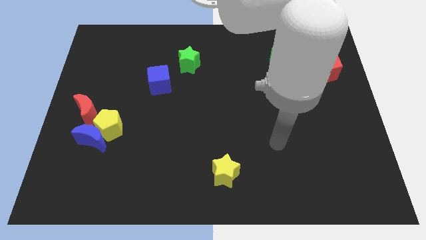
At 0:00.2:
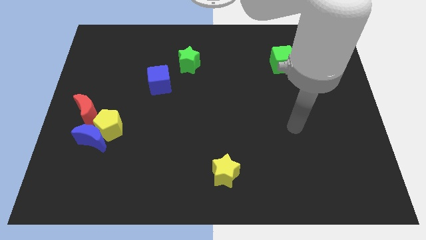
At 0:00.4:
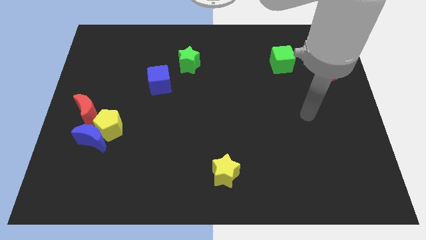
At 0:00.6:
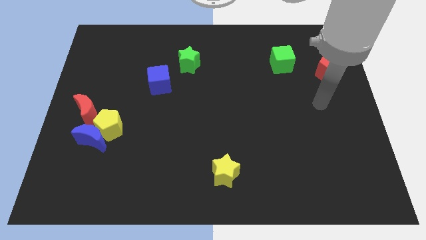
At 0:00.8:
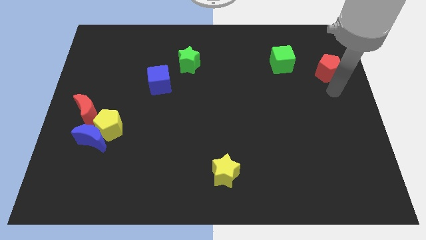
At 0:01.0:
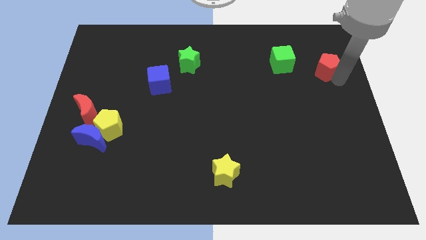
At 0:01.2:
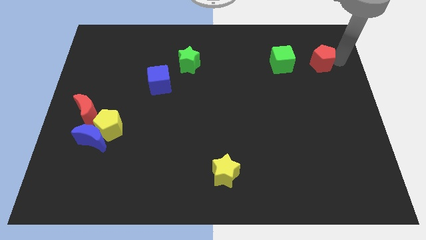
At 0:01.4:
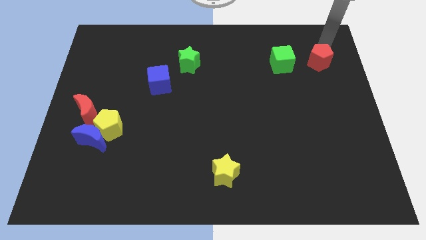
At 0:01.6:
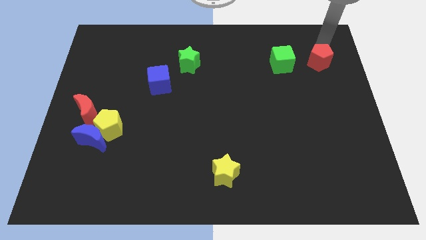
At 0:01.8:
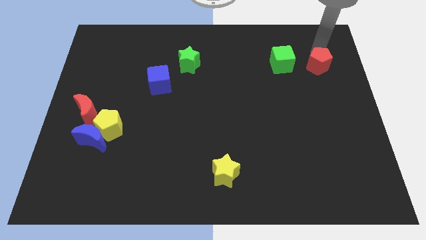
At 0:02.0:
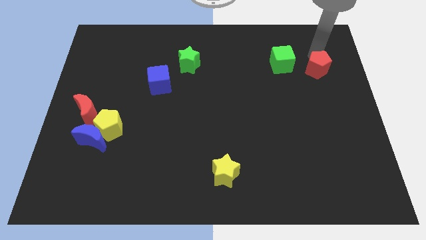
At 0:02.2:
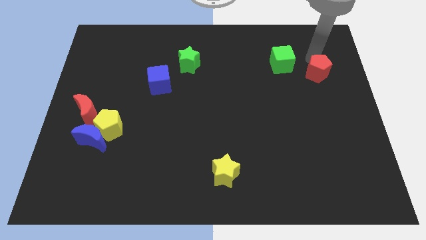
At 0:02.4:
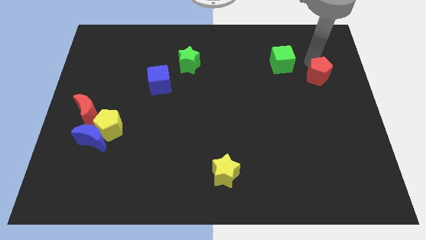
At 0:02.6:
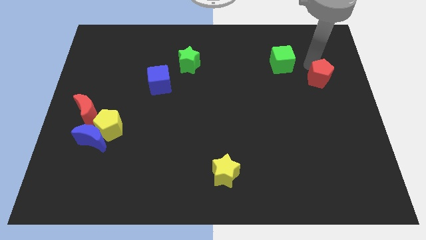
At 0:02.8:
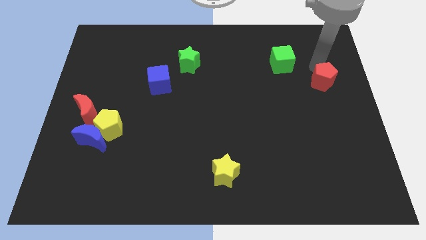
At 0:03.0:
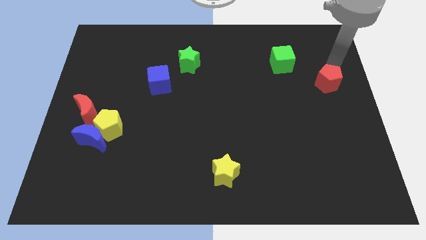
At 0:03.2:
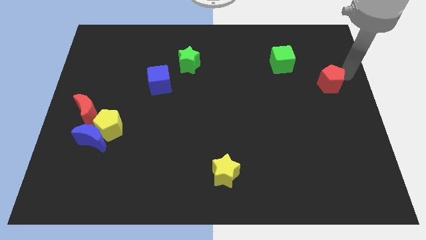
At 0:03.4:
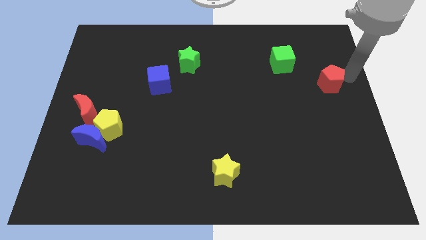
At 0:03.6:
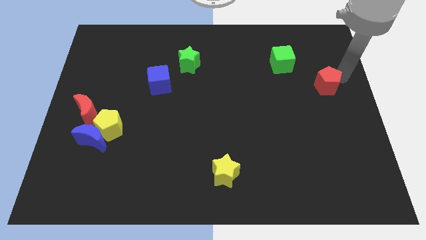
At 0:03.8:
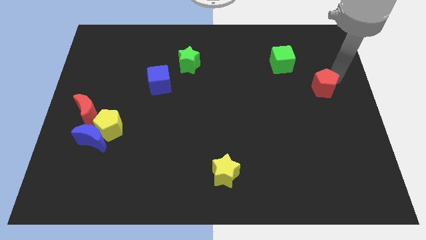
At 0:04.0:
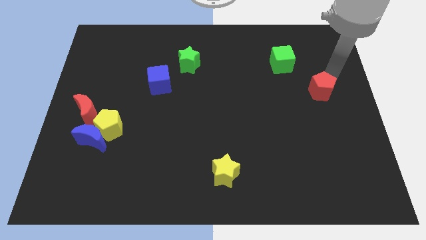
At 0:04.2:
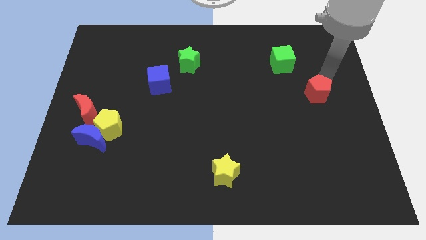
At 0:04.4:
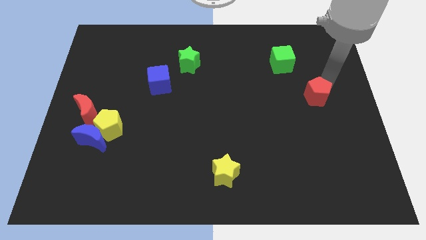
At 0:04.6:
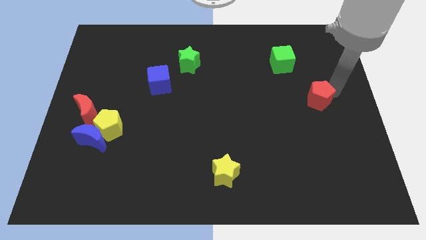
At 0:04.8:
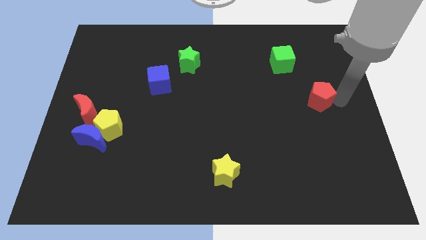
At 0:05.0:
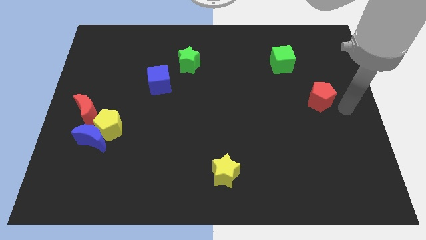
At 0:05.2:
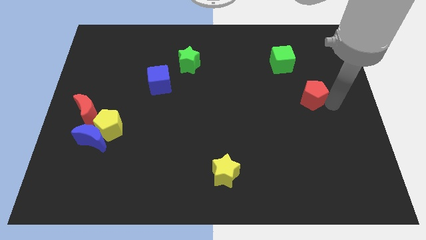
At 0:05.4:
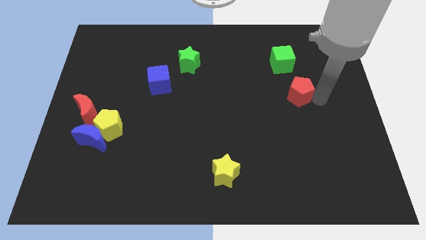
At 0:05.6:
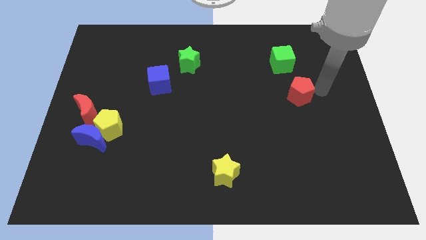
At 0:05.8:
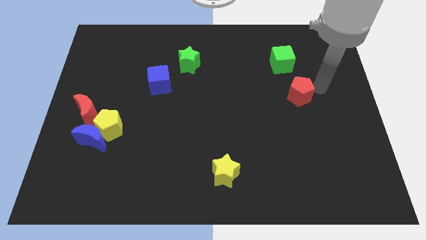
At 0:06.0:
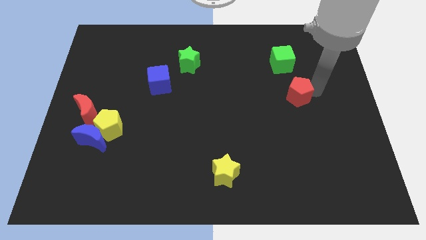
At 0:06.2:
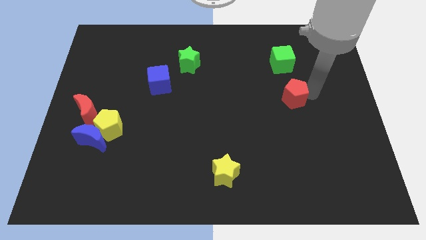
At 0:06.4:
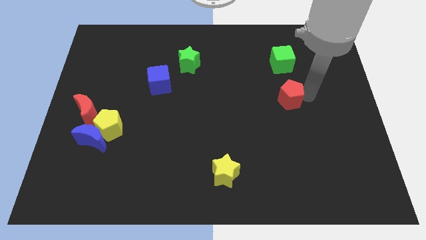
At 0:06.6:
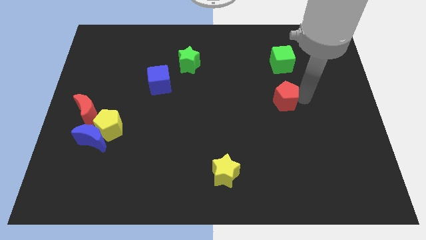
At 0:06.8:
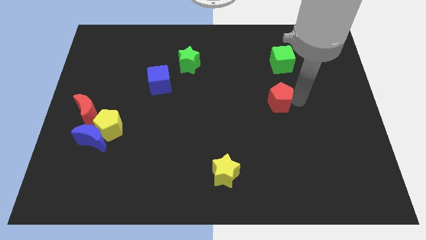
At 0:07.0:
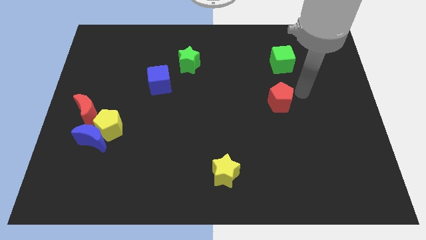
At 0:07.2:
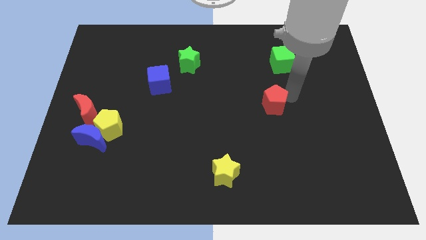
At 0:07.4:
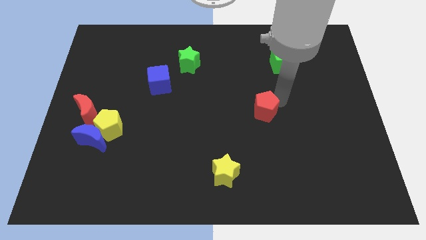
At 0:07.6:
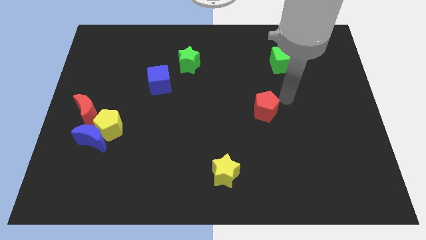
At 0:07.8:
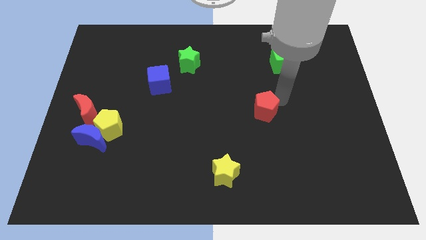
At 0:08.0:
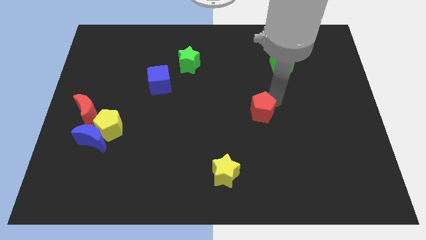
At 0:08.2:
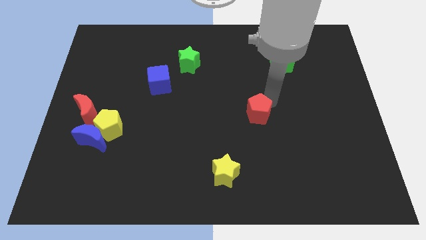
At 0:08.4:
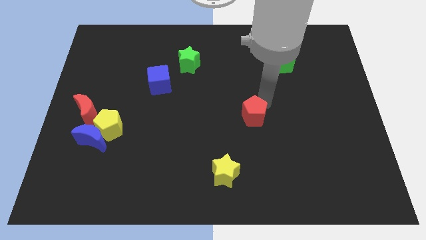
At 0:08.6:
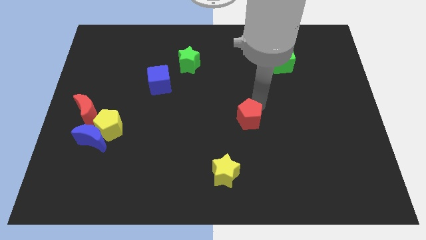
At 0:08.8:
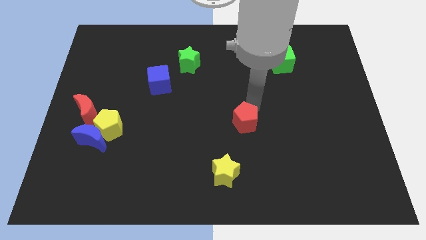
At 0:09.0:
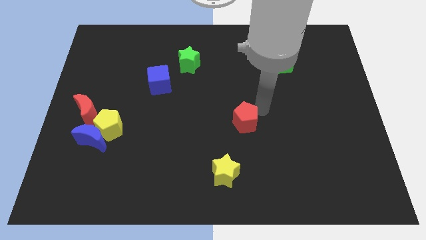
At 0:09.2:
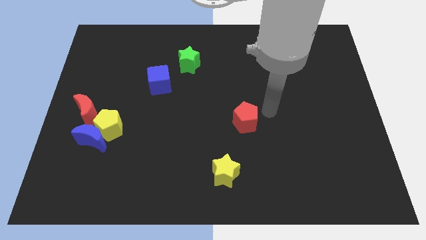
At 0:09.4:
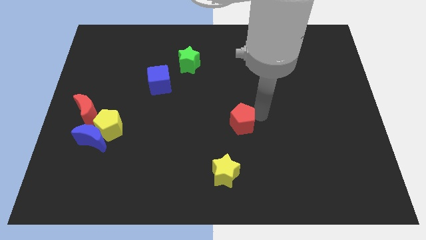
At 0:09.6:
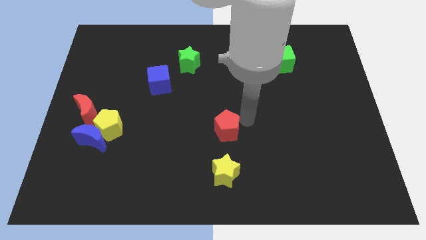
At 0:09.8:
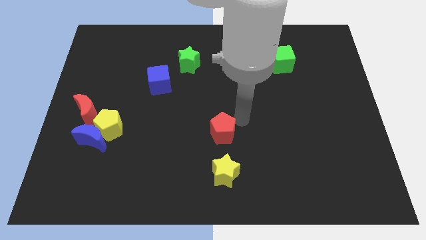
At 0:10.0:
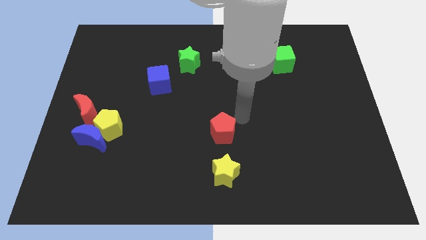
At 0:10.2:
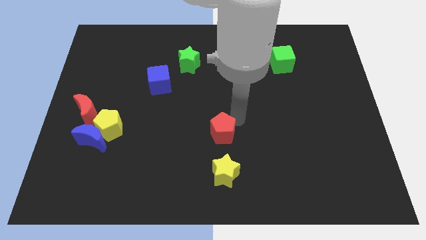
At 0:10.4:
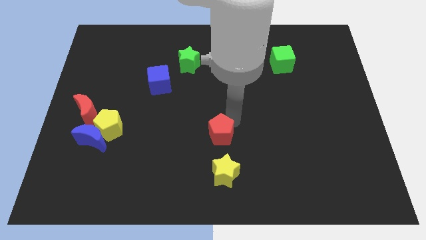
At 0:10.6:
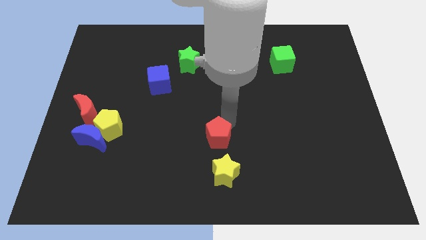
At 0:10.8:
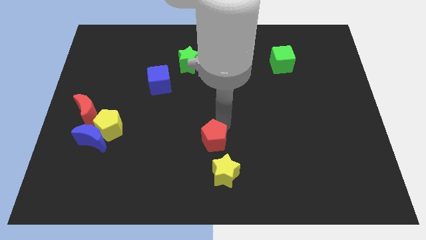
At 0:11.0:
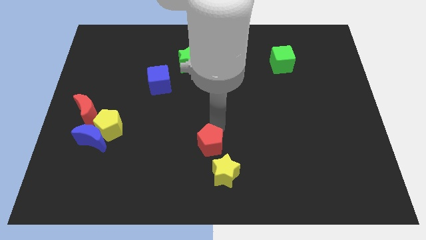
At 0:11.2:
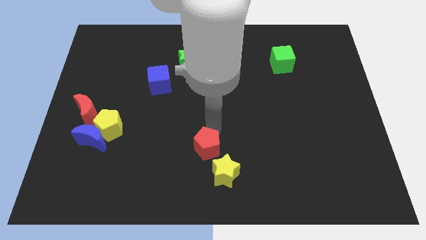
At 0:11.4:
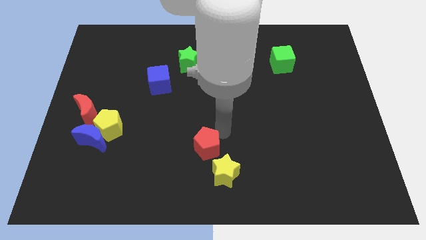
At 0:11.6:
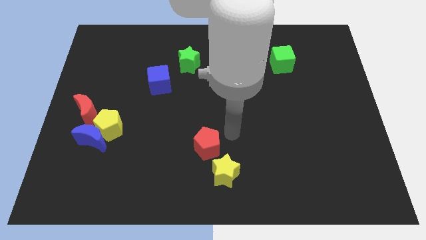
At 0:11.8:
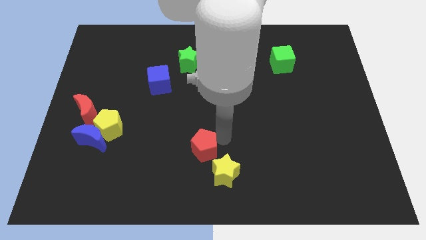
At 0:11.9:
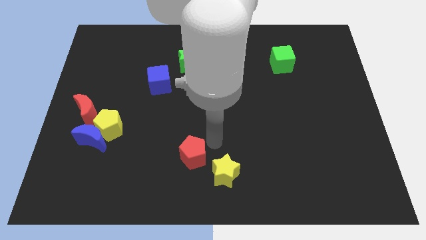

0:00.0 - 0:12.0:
put the red pentagon just left of the yellow star

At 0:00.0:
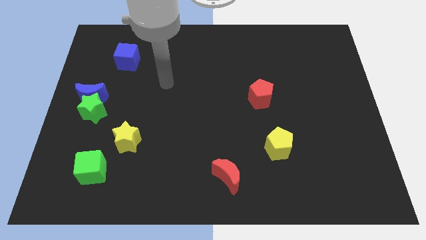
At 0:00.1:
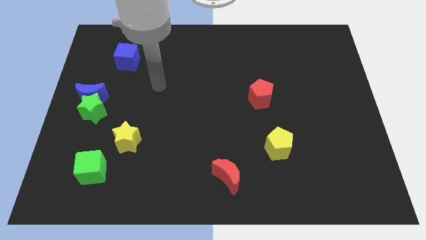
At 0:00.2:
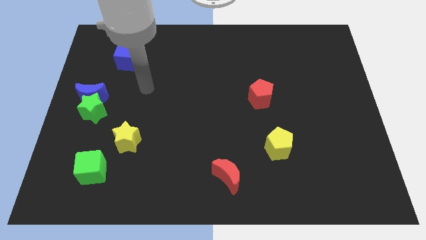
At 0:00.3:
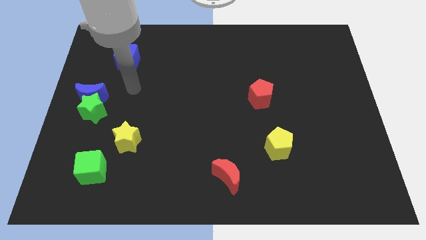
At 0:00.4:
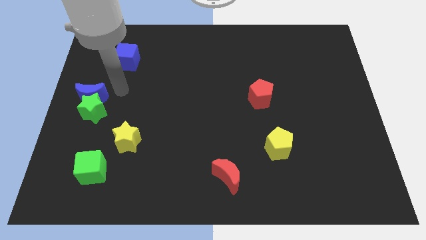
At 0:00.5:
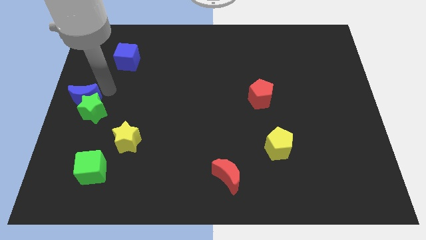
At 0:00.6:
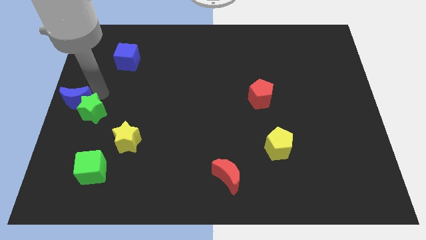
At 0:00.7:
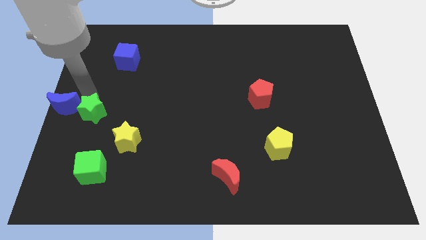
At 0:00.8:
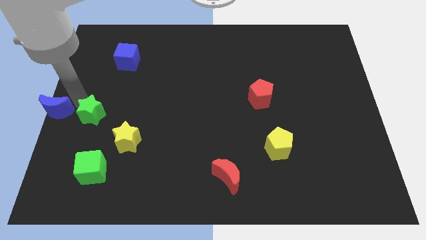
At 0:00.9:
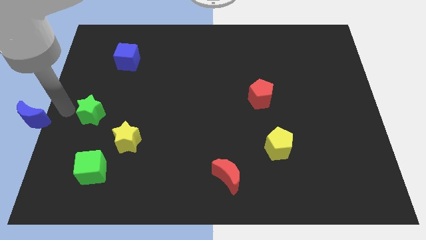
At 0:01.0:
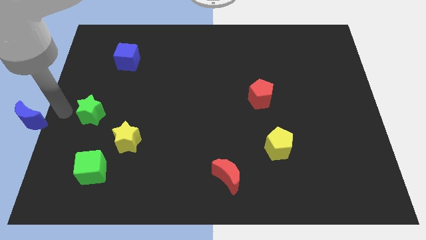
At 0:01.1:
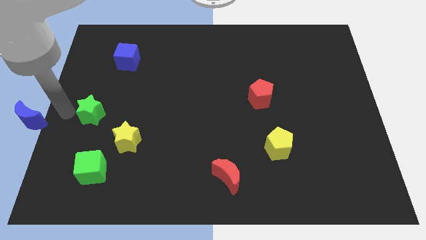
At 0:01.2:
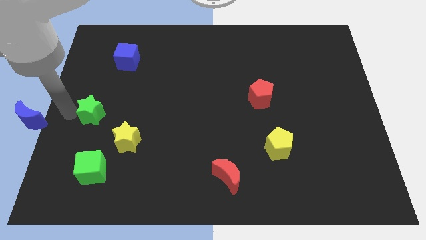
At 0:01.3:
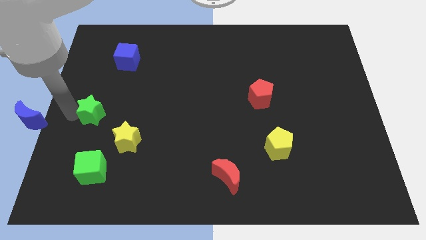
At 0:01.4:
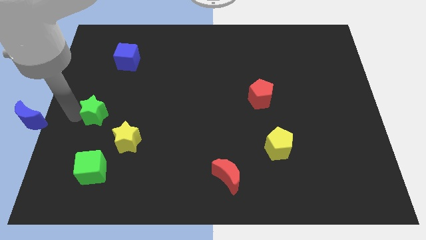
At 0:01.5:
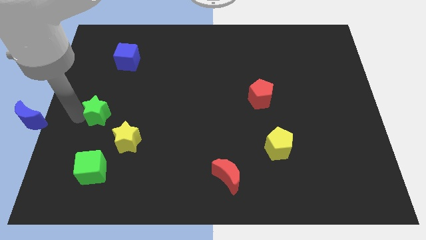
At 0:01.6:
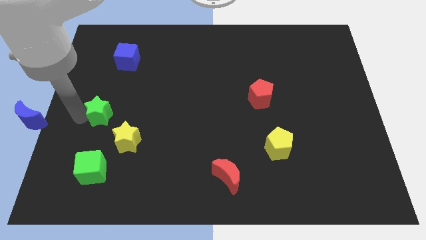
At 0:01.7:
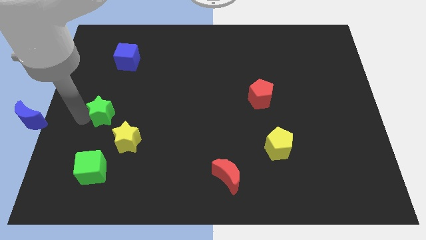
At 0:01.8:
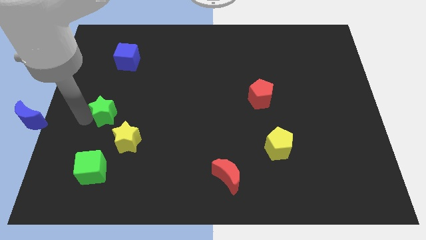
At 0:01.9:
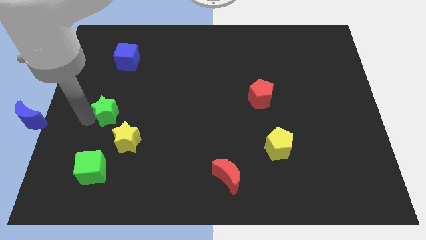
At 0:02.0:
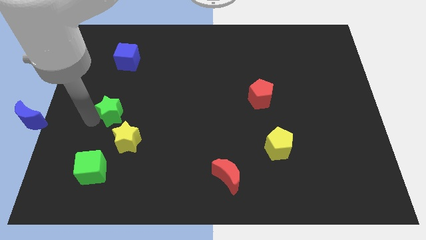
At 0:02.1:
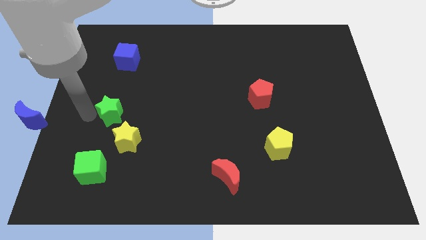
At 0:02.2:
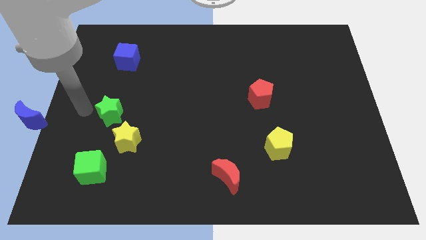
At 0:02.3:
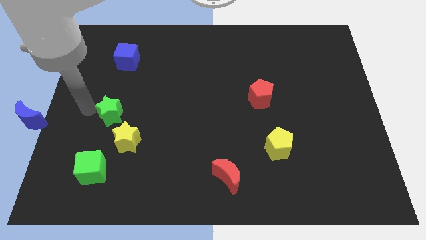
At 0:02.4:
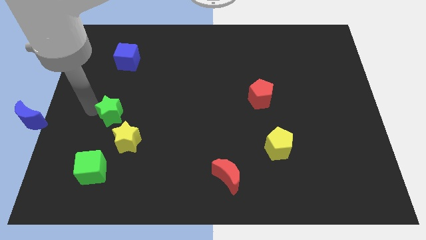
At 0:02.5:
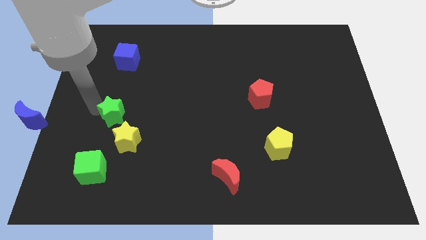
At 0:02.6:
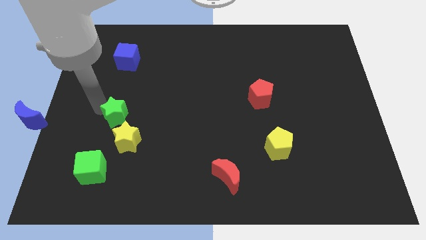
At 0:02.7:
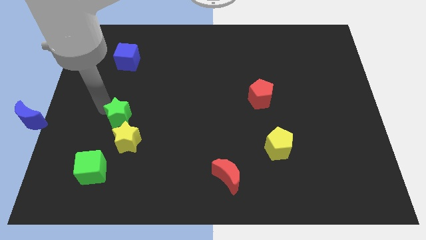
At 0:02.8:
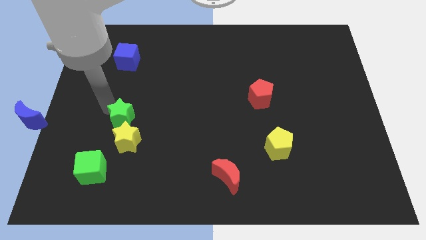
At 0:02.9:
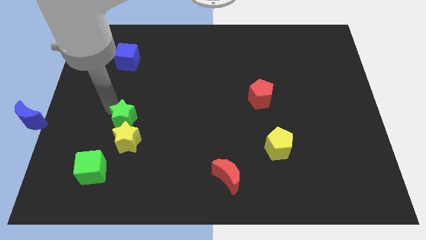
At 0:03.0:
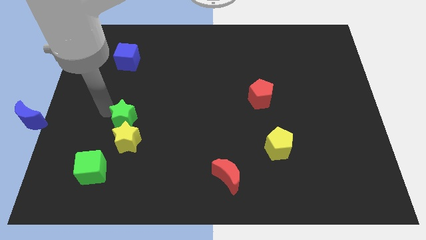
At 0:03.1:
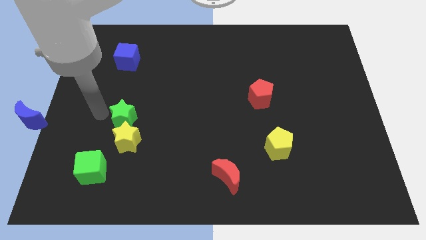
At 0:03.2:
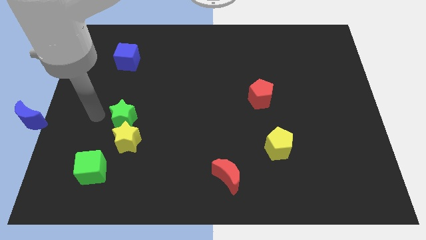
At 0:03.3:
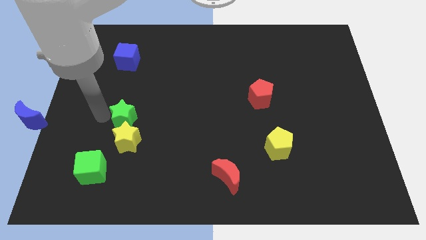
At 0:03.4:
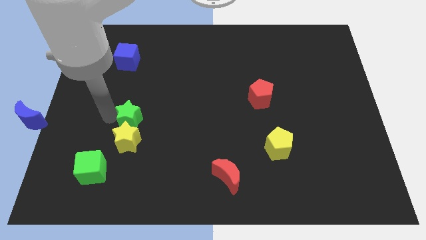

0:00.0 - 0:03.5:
put the green star diagonally up and to the right of the yellow star
